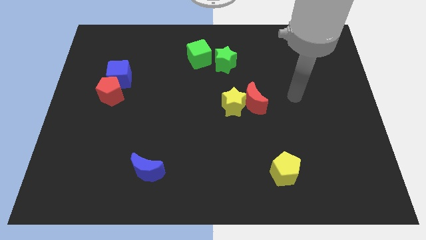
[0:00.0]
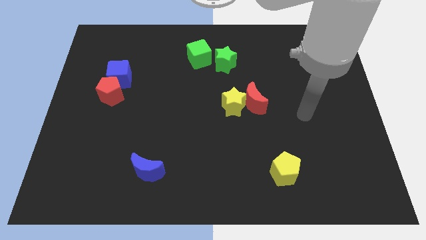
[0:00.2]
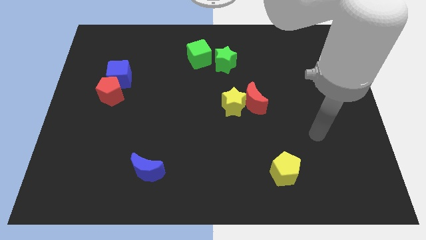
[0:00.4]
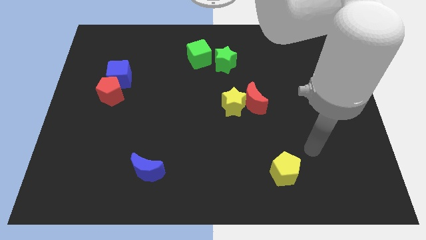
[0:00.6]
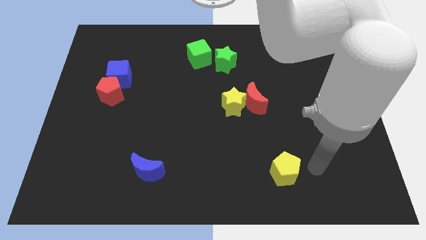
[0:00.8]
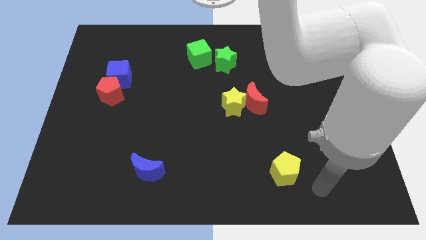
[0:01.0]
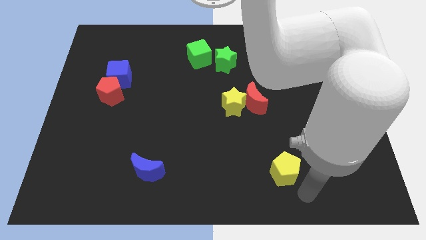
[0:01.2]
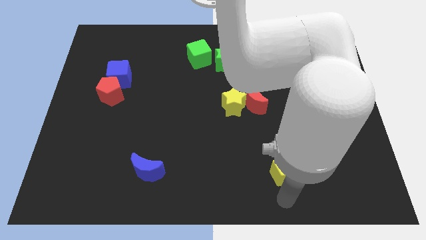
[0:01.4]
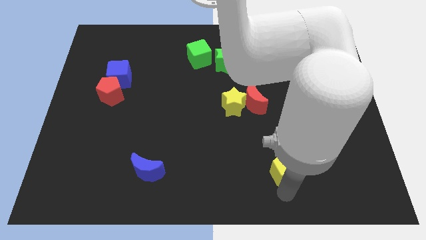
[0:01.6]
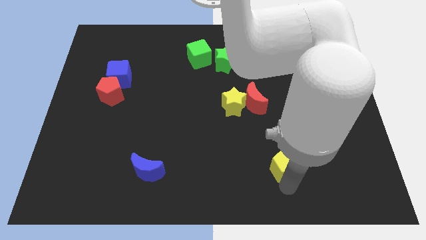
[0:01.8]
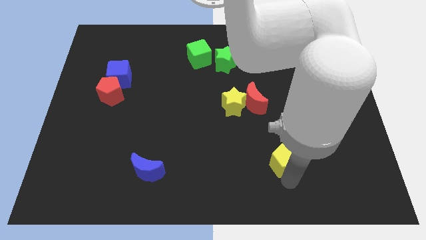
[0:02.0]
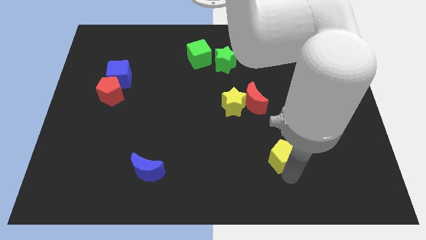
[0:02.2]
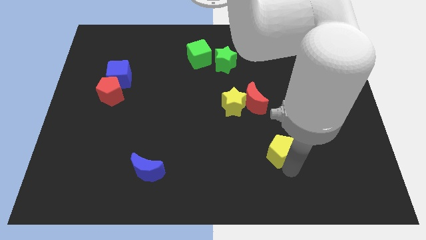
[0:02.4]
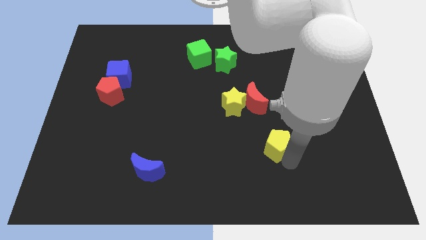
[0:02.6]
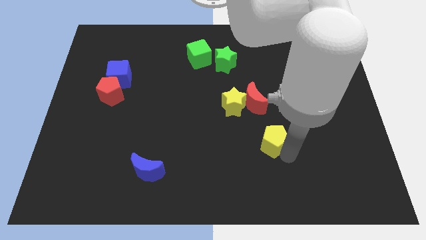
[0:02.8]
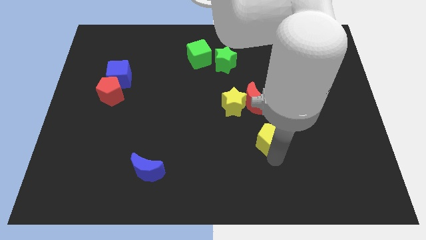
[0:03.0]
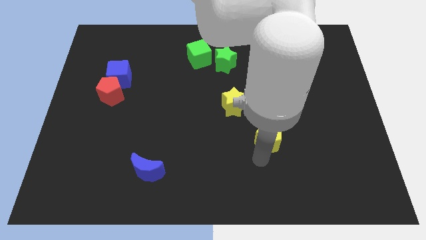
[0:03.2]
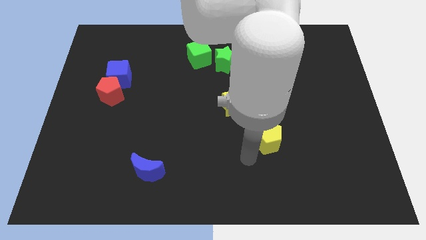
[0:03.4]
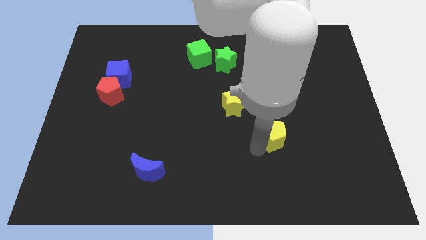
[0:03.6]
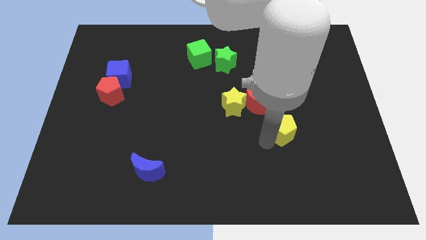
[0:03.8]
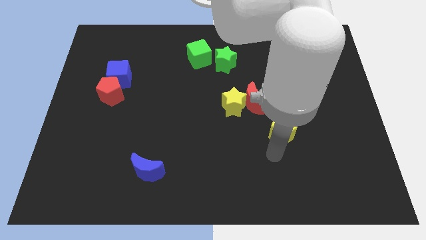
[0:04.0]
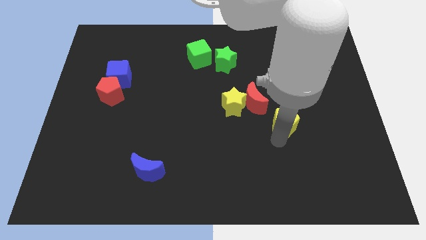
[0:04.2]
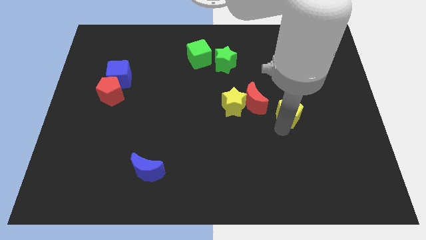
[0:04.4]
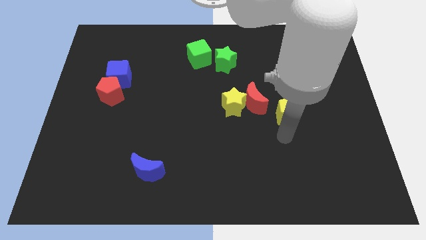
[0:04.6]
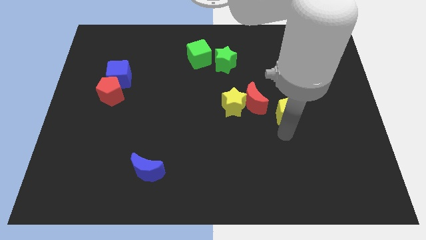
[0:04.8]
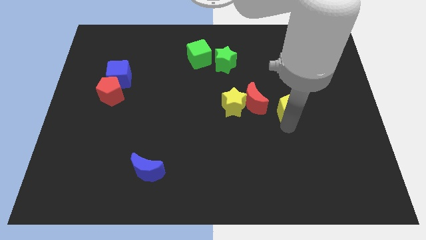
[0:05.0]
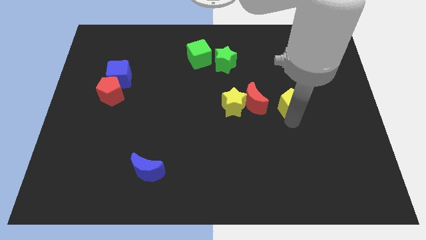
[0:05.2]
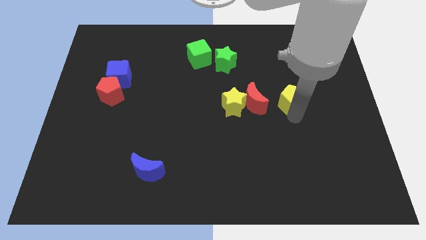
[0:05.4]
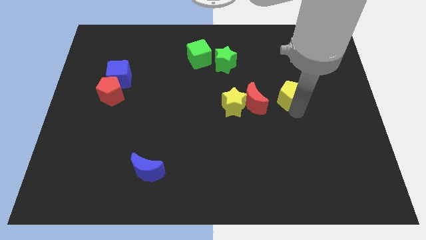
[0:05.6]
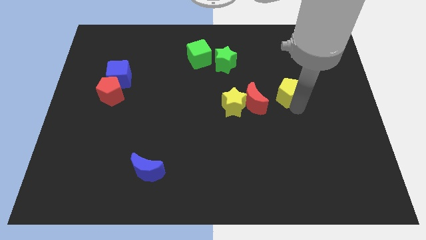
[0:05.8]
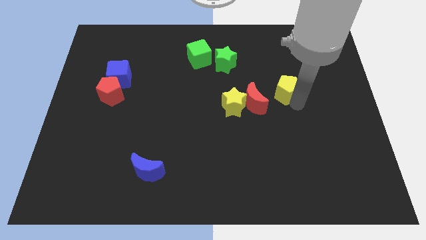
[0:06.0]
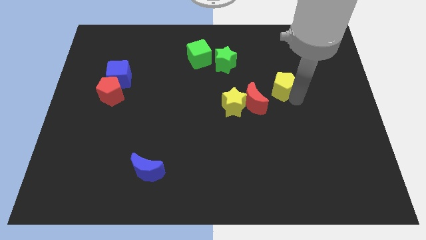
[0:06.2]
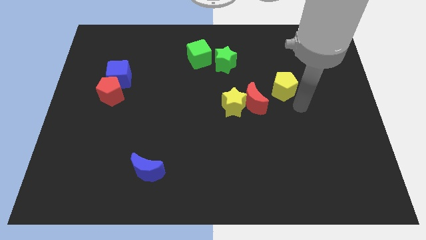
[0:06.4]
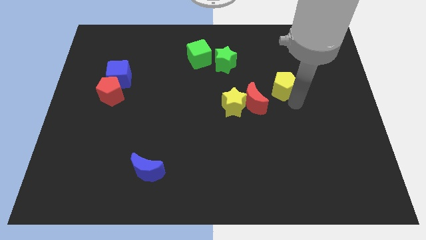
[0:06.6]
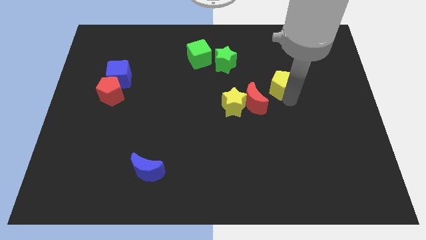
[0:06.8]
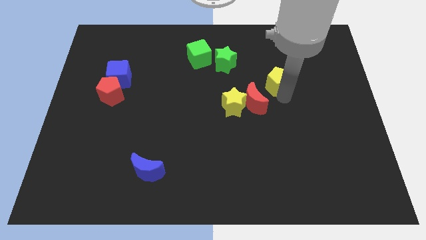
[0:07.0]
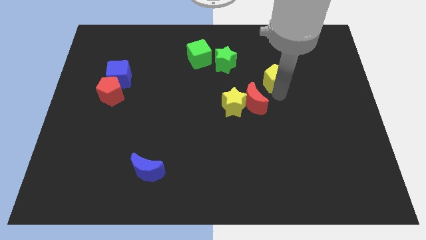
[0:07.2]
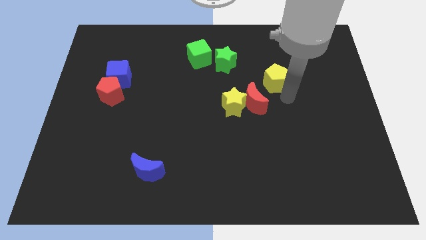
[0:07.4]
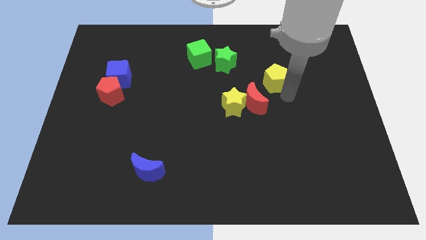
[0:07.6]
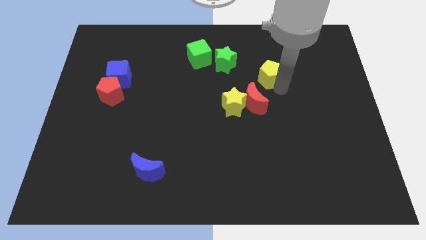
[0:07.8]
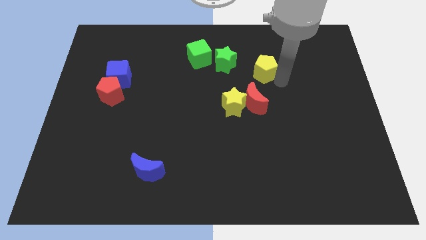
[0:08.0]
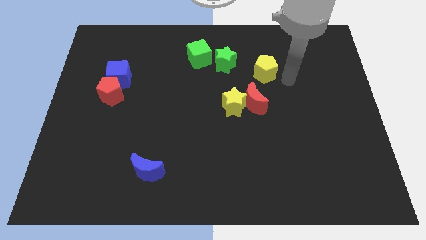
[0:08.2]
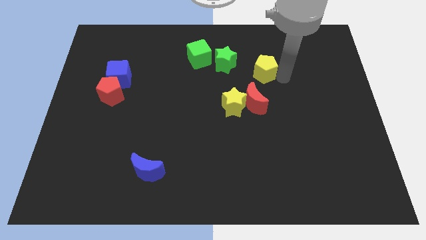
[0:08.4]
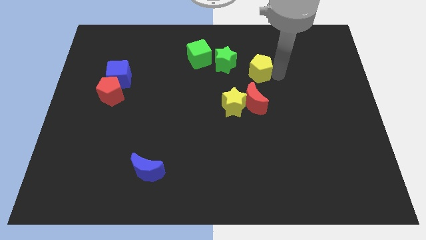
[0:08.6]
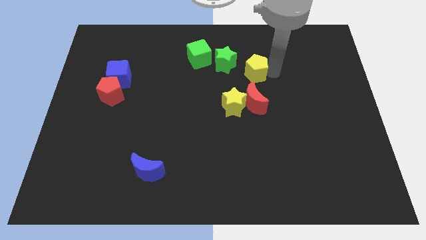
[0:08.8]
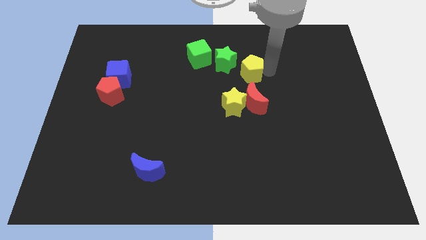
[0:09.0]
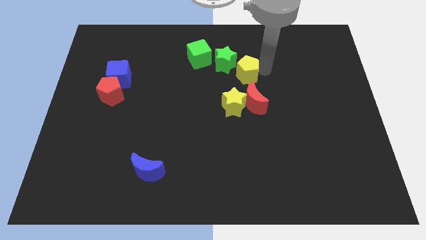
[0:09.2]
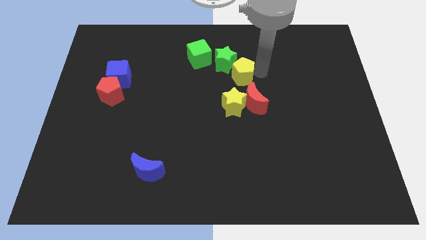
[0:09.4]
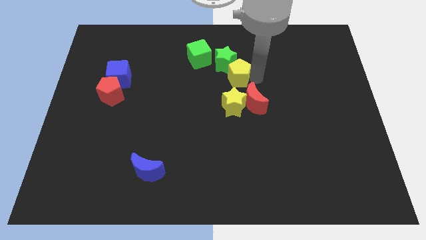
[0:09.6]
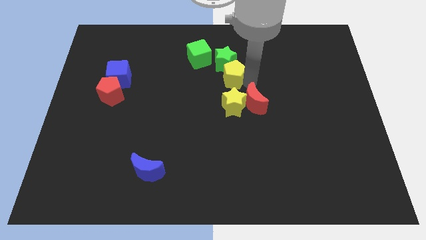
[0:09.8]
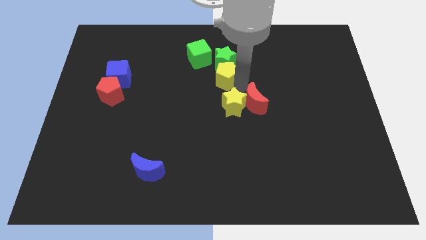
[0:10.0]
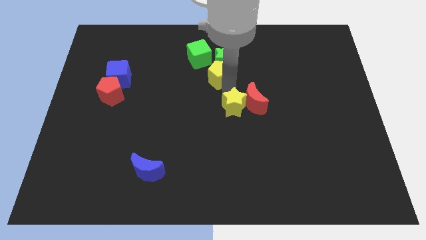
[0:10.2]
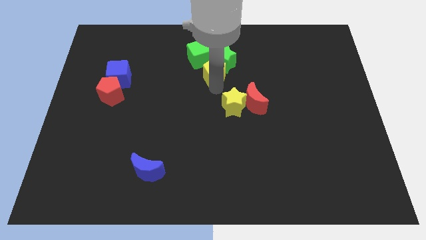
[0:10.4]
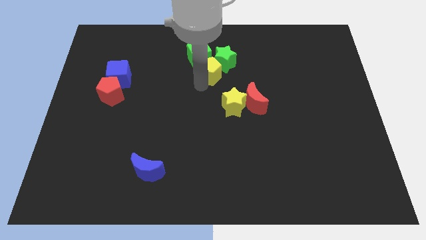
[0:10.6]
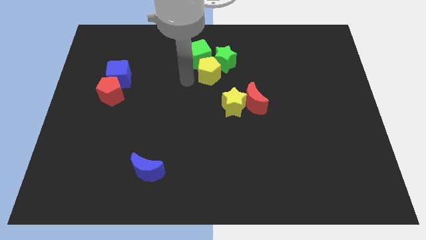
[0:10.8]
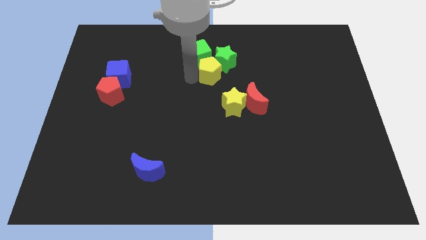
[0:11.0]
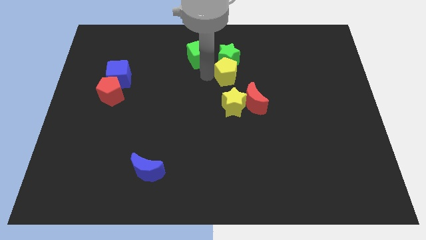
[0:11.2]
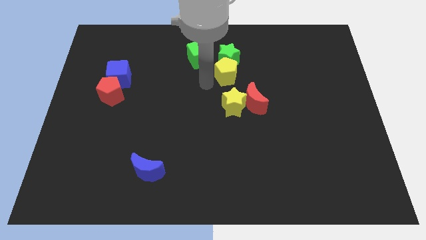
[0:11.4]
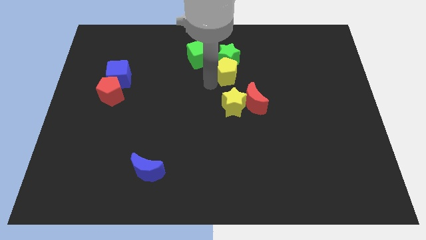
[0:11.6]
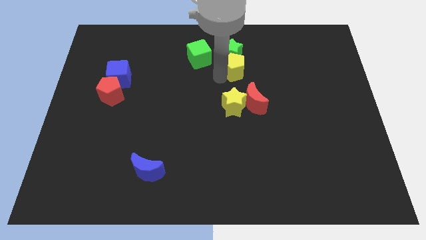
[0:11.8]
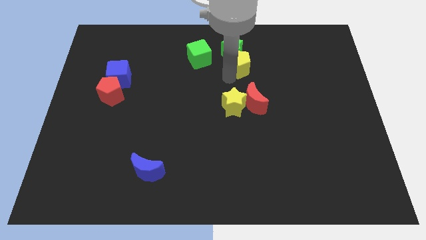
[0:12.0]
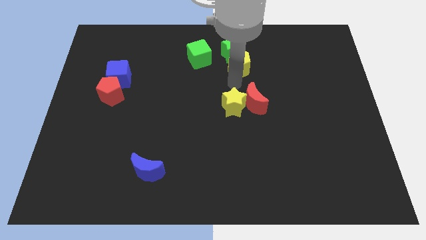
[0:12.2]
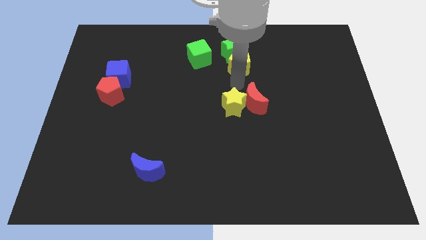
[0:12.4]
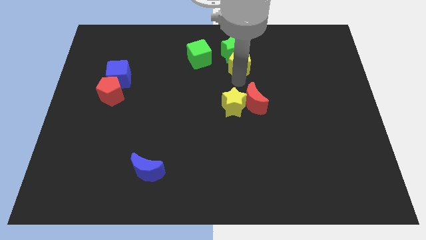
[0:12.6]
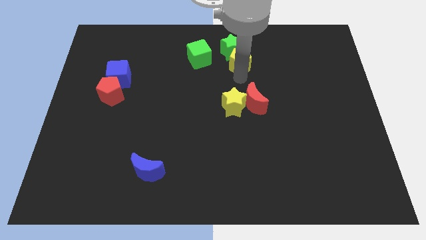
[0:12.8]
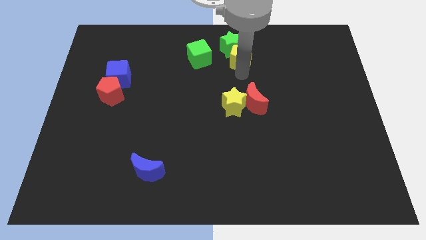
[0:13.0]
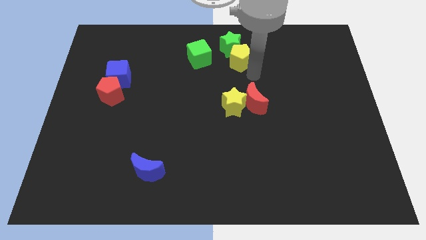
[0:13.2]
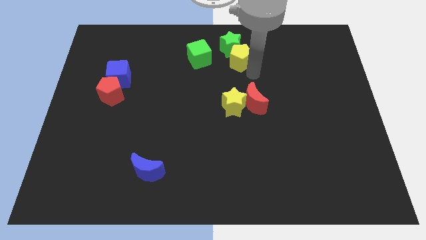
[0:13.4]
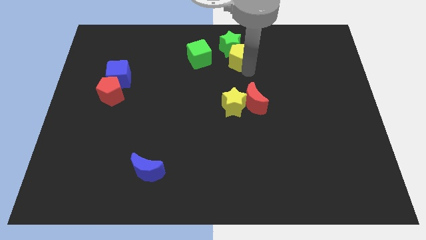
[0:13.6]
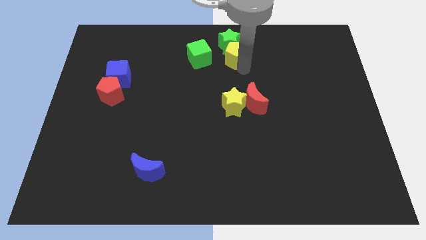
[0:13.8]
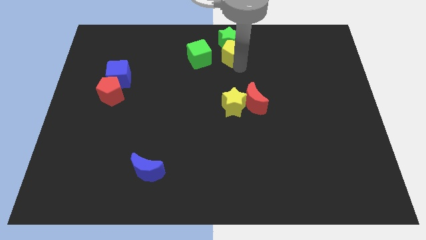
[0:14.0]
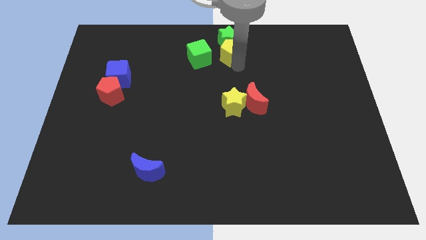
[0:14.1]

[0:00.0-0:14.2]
put the yellow pentagon to the top
